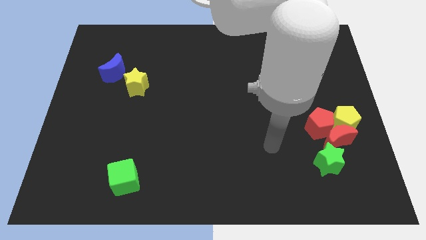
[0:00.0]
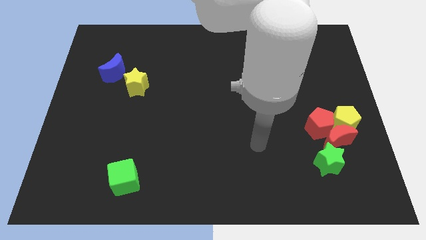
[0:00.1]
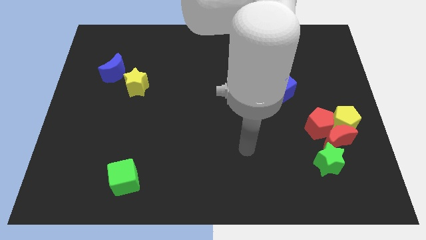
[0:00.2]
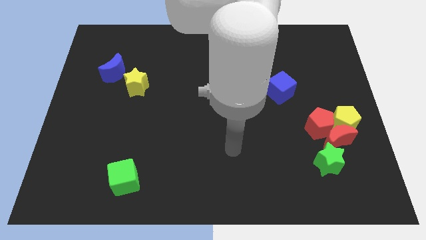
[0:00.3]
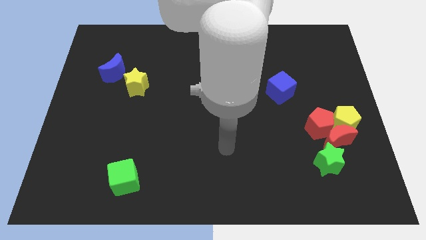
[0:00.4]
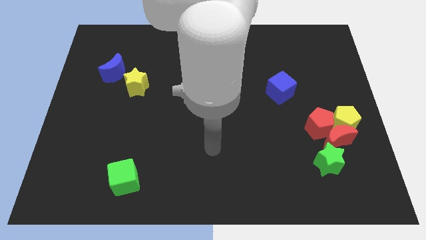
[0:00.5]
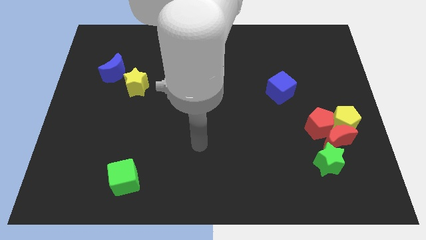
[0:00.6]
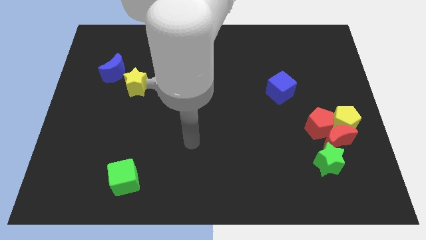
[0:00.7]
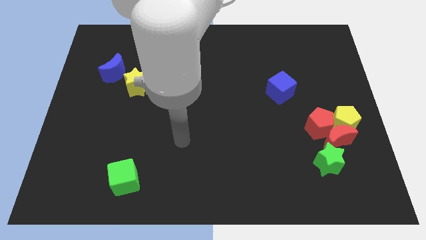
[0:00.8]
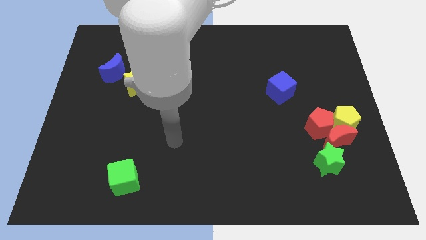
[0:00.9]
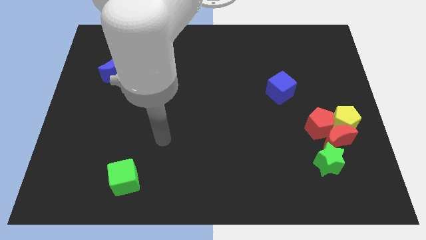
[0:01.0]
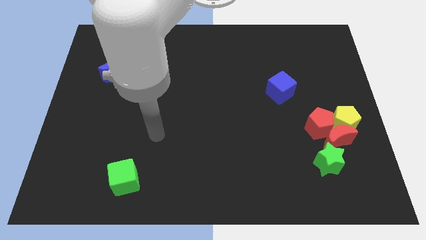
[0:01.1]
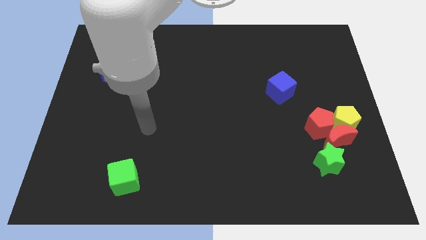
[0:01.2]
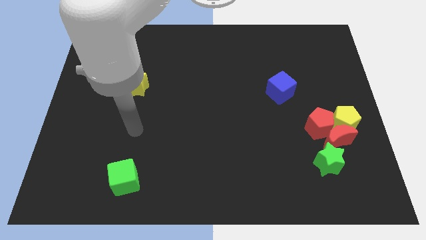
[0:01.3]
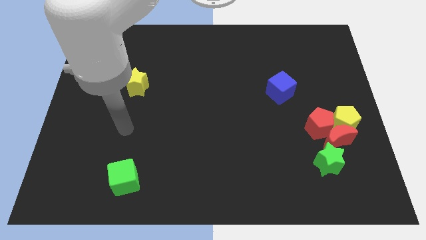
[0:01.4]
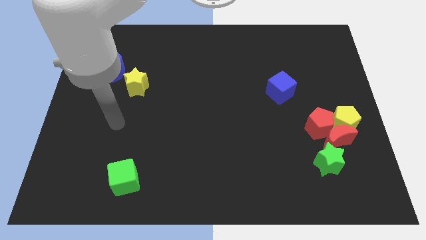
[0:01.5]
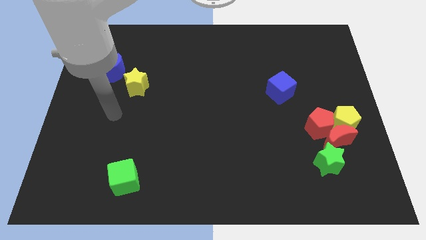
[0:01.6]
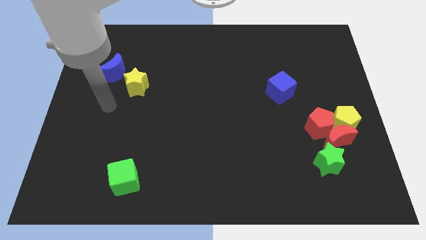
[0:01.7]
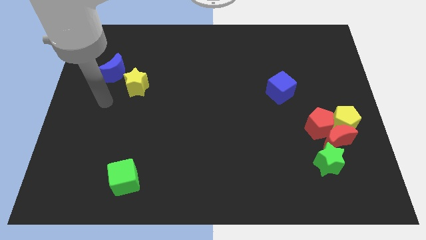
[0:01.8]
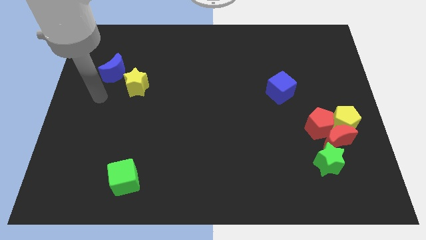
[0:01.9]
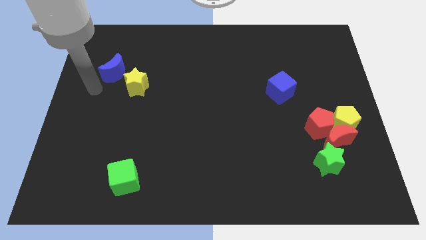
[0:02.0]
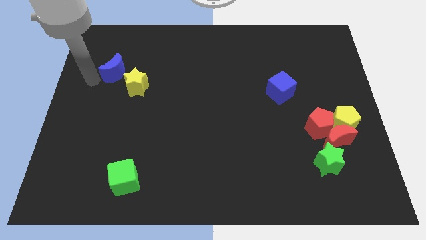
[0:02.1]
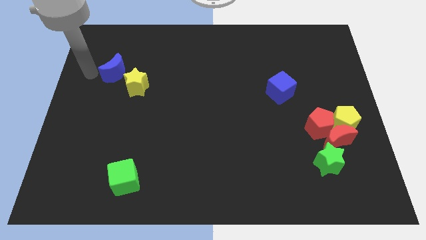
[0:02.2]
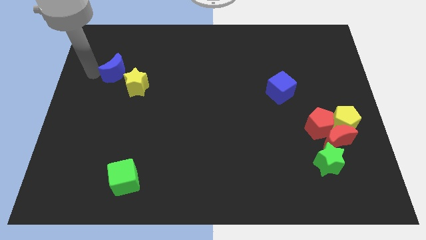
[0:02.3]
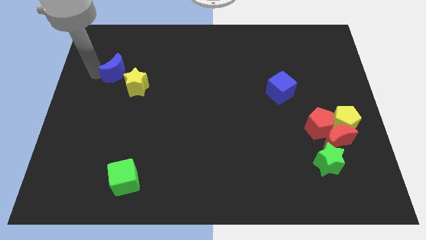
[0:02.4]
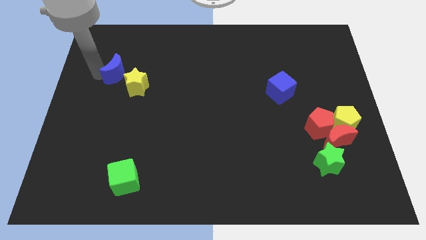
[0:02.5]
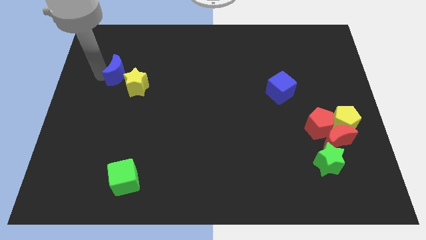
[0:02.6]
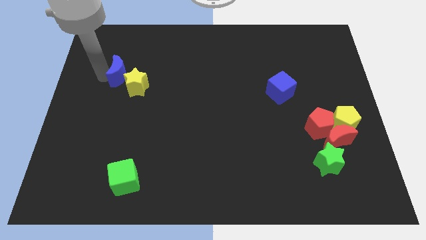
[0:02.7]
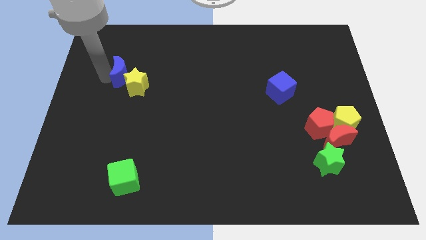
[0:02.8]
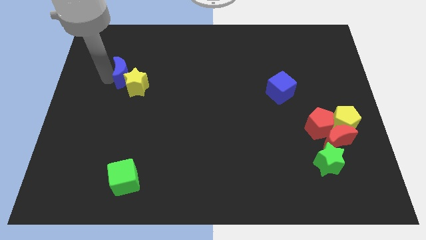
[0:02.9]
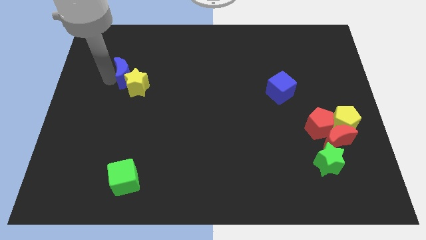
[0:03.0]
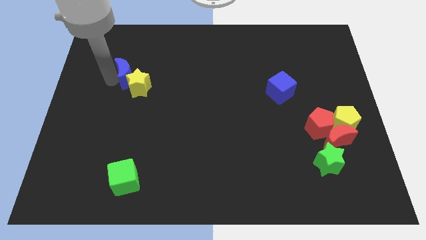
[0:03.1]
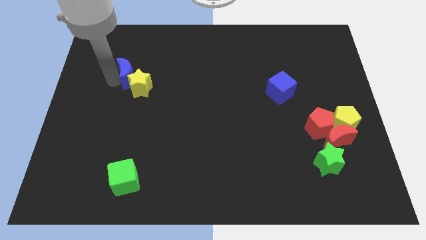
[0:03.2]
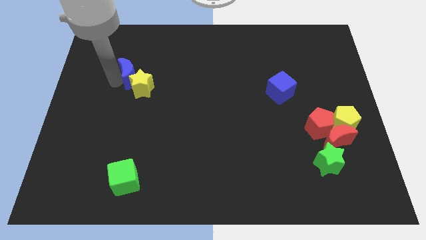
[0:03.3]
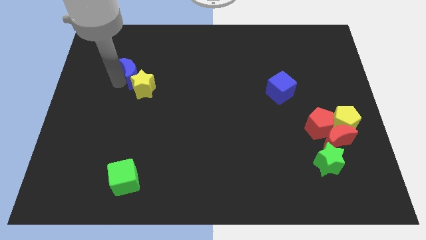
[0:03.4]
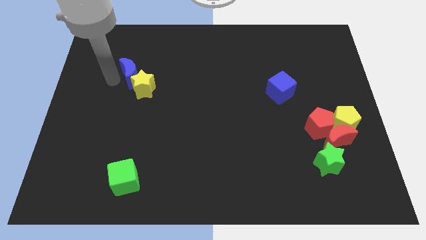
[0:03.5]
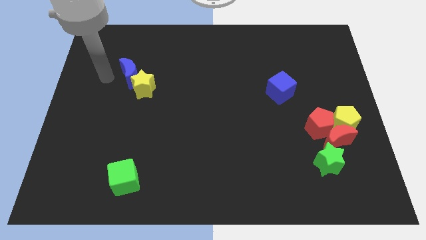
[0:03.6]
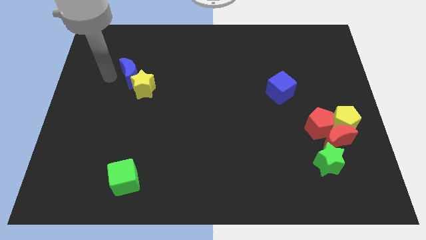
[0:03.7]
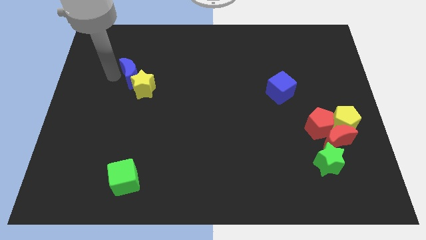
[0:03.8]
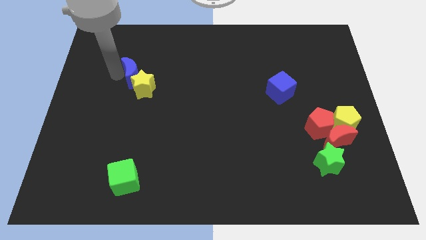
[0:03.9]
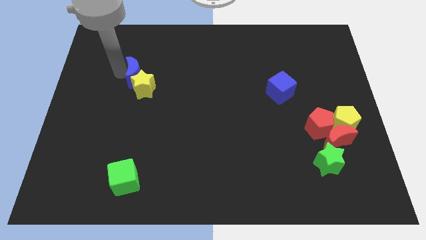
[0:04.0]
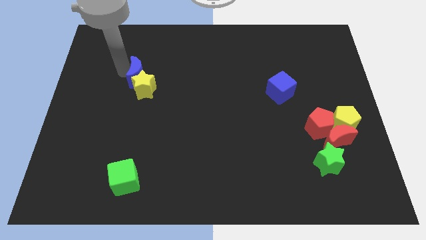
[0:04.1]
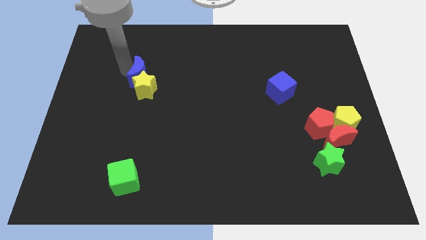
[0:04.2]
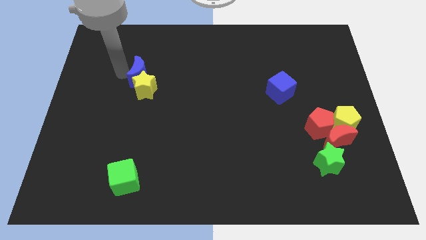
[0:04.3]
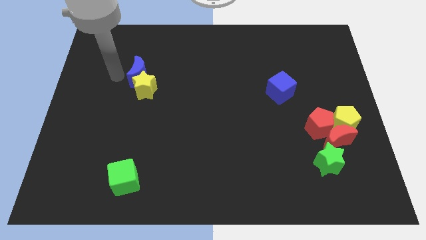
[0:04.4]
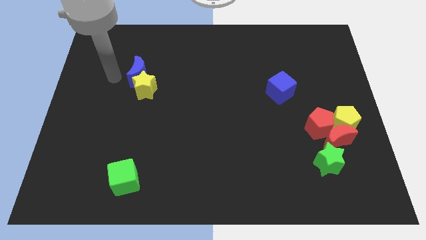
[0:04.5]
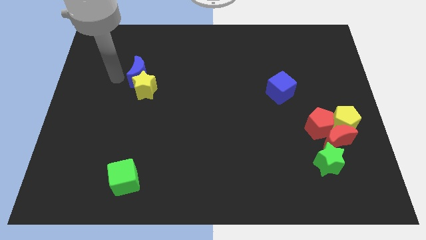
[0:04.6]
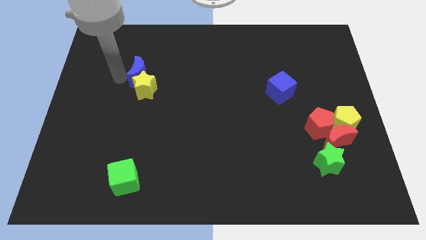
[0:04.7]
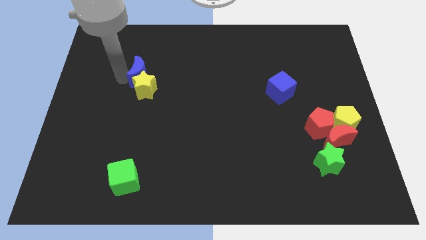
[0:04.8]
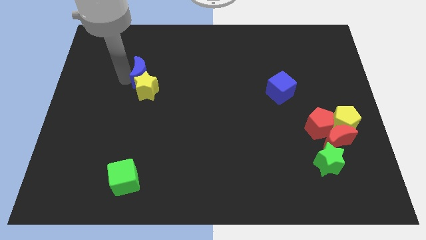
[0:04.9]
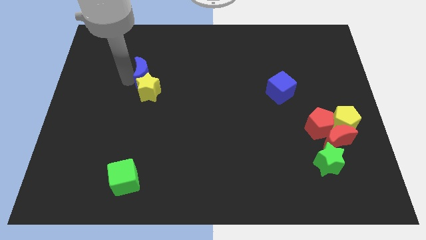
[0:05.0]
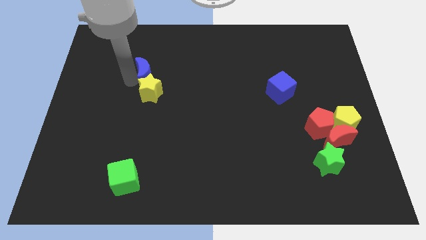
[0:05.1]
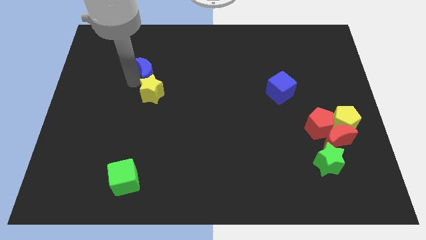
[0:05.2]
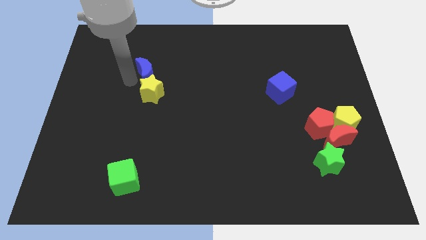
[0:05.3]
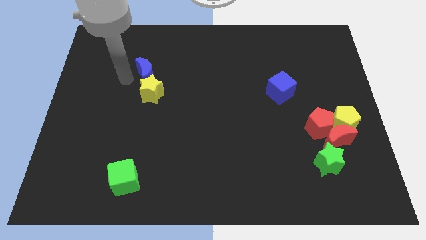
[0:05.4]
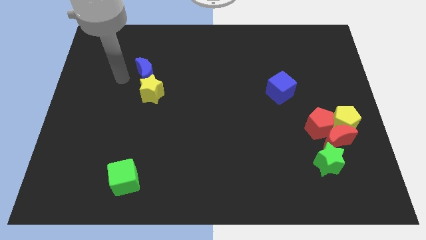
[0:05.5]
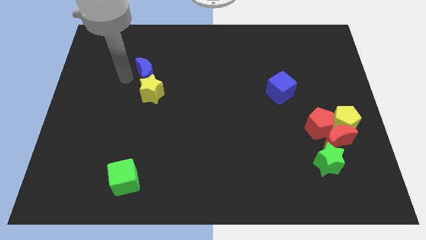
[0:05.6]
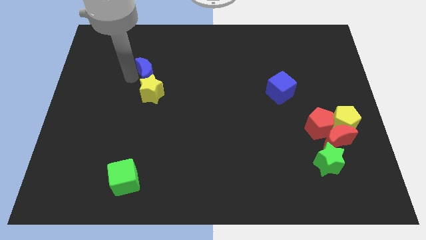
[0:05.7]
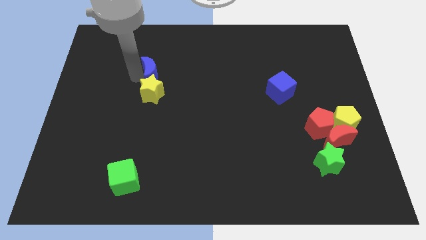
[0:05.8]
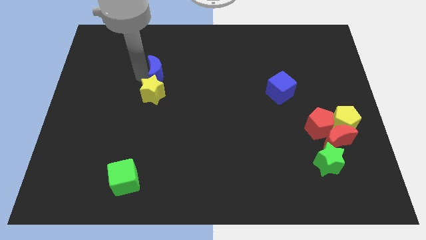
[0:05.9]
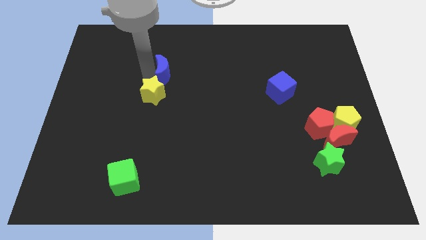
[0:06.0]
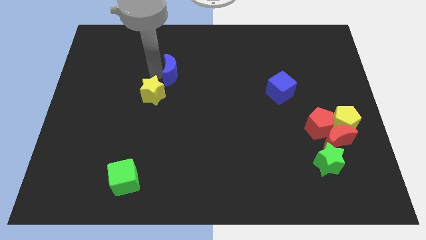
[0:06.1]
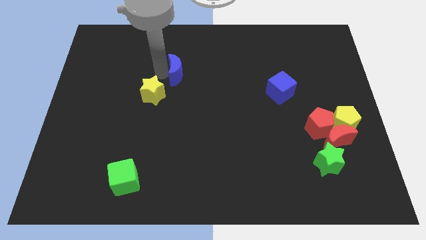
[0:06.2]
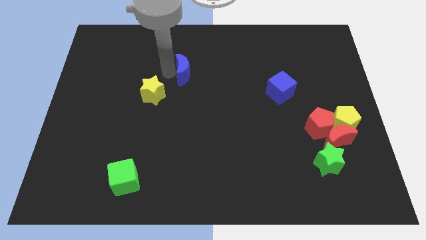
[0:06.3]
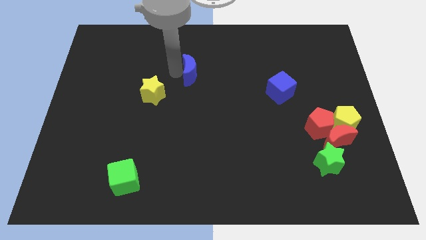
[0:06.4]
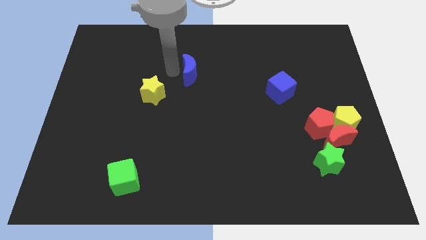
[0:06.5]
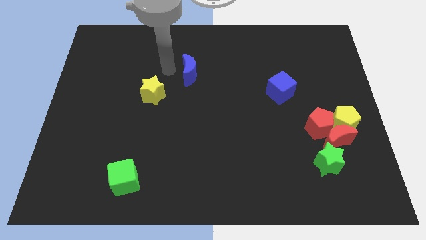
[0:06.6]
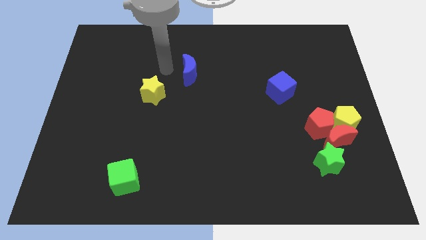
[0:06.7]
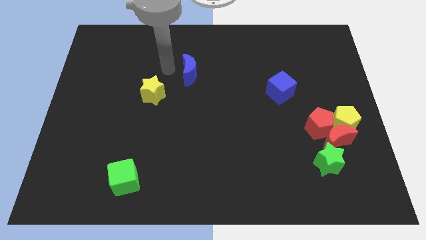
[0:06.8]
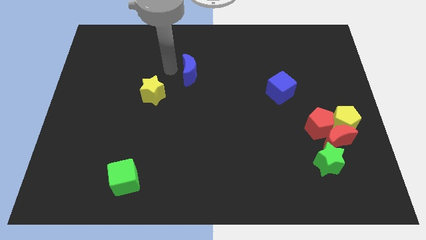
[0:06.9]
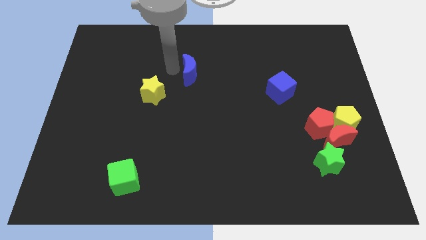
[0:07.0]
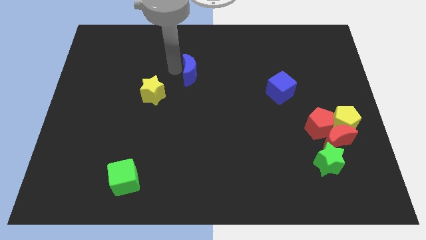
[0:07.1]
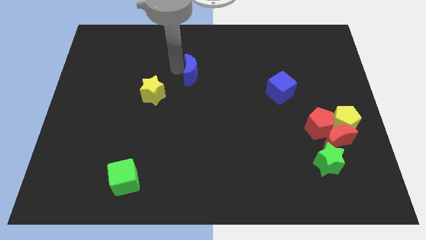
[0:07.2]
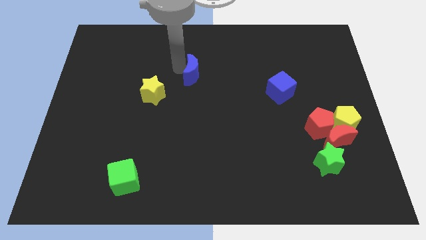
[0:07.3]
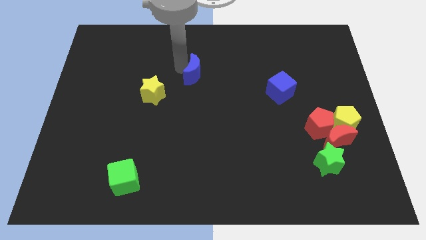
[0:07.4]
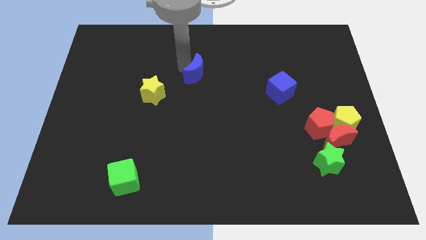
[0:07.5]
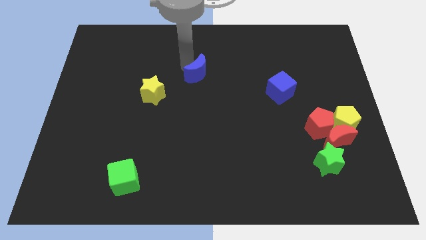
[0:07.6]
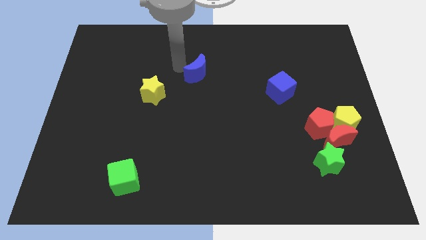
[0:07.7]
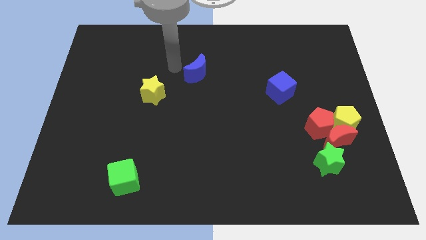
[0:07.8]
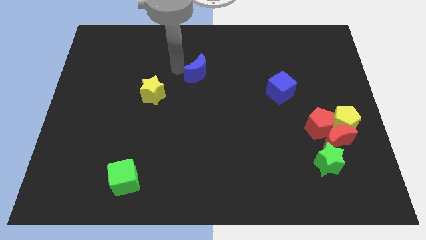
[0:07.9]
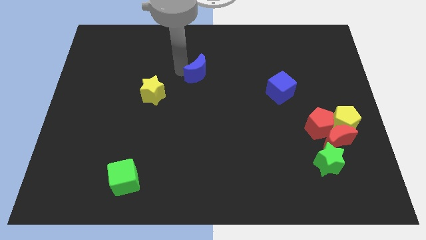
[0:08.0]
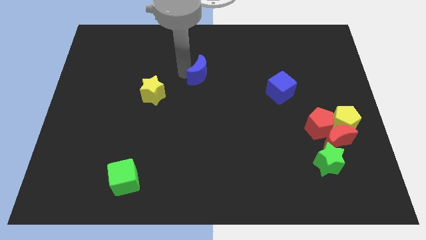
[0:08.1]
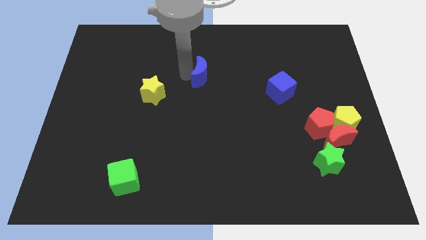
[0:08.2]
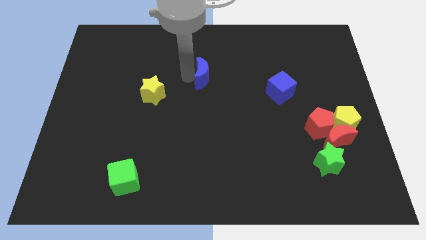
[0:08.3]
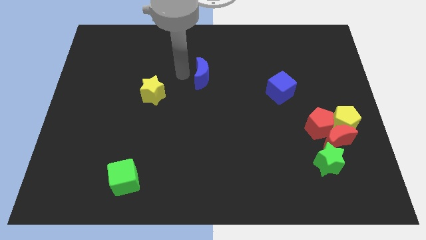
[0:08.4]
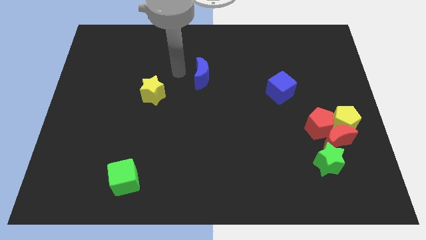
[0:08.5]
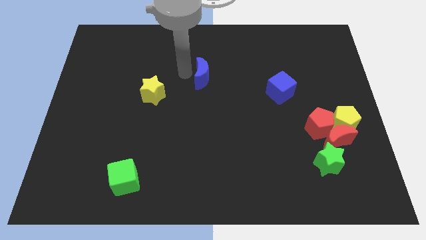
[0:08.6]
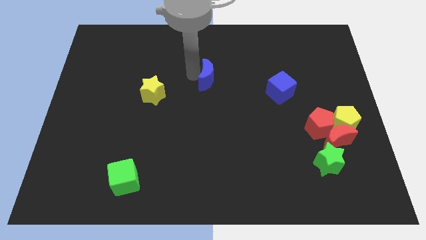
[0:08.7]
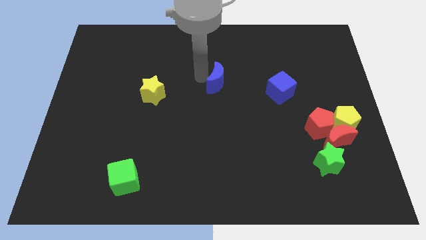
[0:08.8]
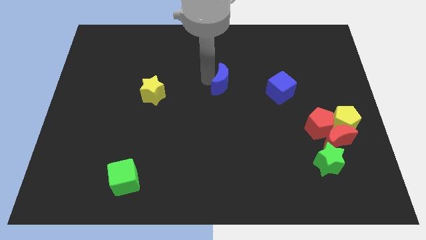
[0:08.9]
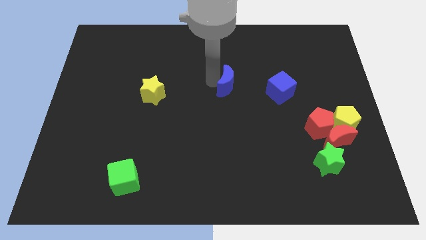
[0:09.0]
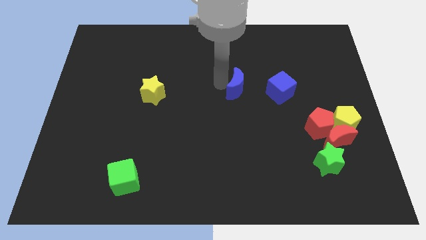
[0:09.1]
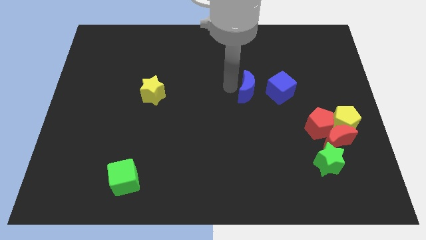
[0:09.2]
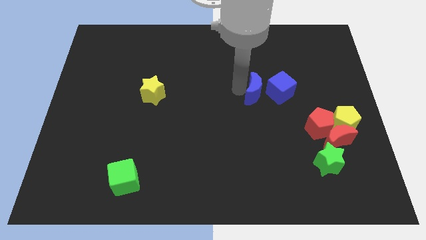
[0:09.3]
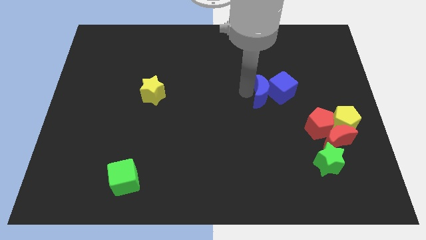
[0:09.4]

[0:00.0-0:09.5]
push the blue moon to the blue cube
